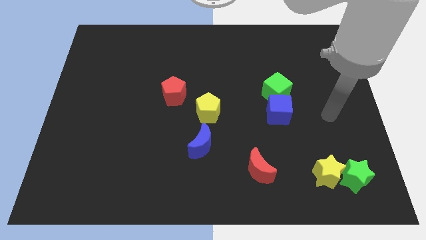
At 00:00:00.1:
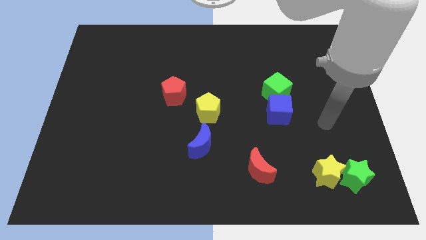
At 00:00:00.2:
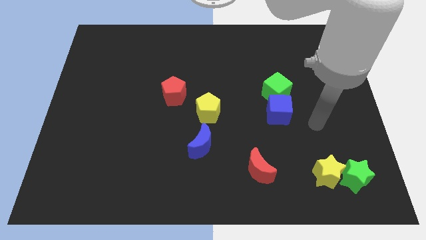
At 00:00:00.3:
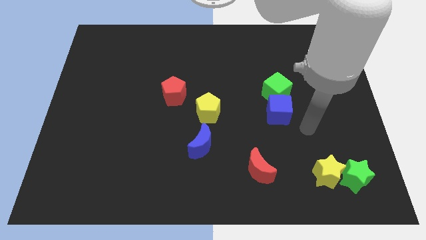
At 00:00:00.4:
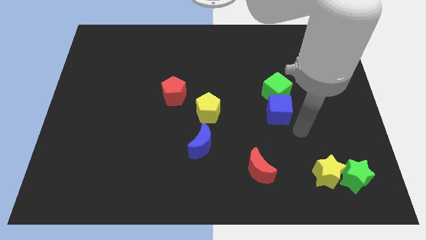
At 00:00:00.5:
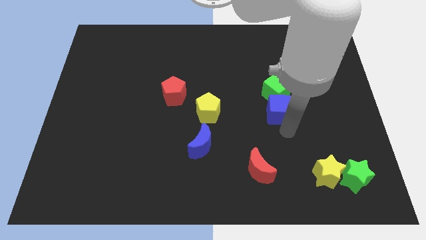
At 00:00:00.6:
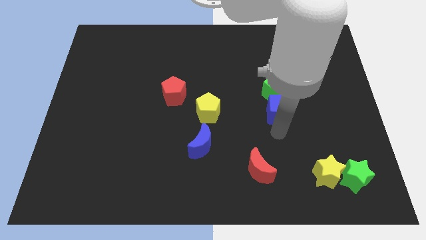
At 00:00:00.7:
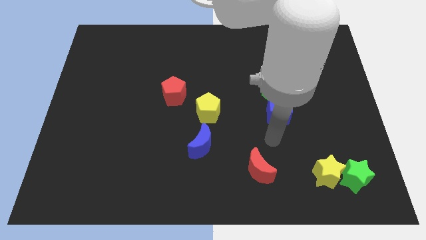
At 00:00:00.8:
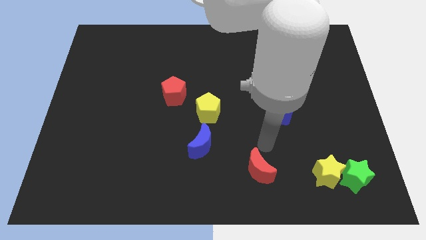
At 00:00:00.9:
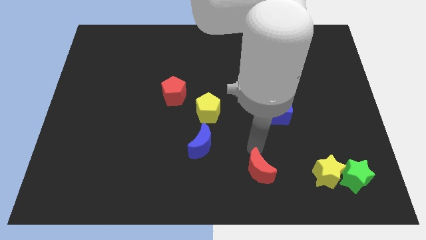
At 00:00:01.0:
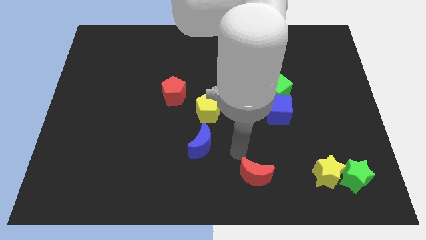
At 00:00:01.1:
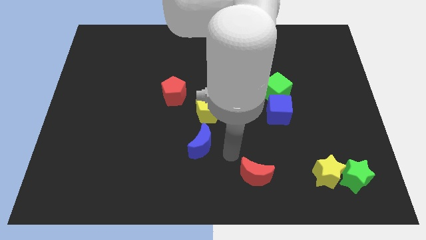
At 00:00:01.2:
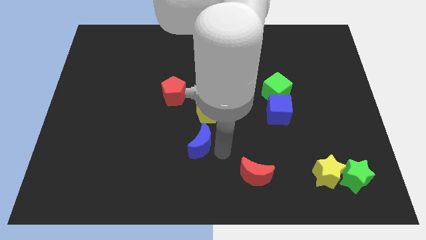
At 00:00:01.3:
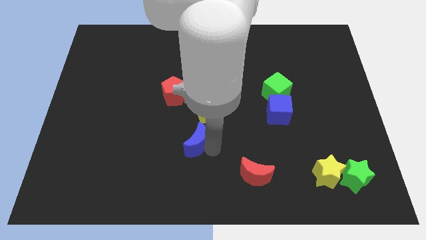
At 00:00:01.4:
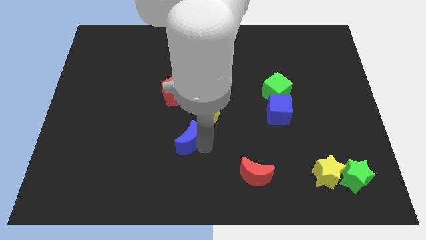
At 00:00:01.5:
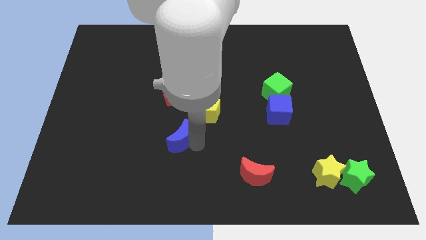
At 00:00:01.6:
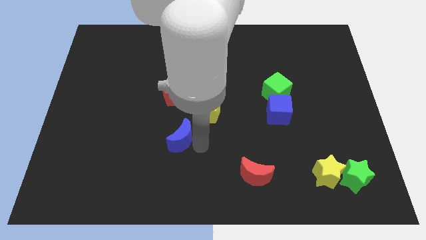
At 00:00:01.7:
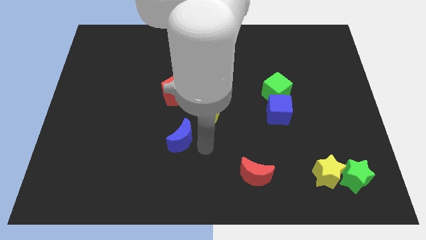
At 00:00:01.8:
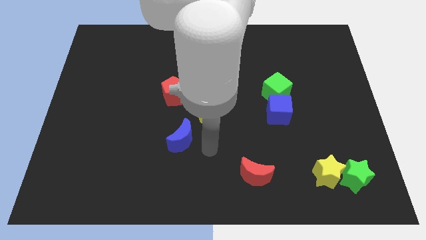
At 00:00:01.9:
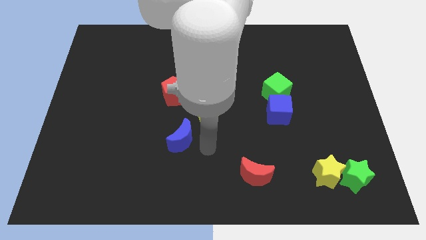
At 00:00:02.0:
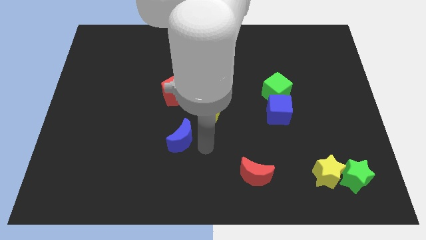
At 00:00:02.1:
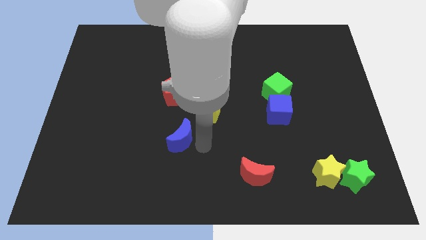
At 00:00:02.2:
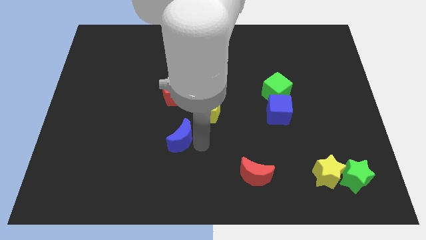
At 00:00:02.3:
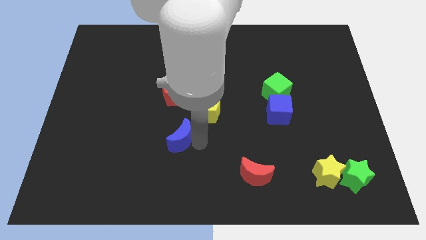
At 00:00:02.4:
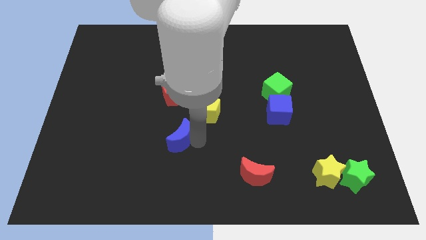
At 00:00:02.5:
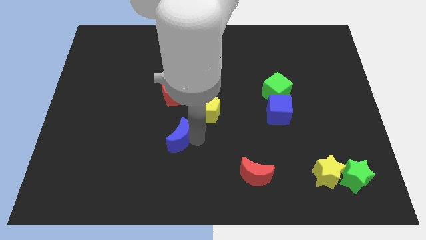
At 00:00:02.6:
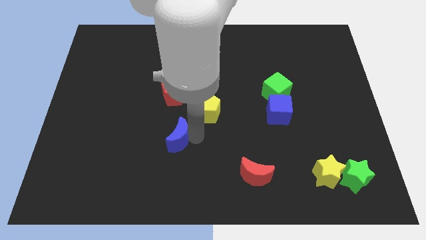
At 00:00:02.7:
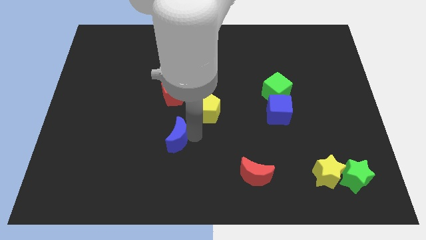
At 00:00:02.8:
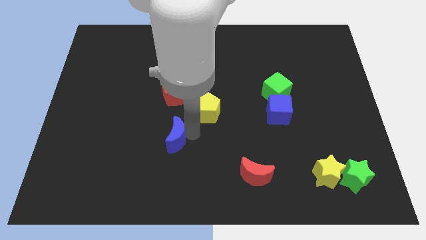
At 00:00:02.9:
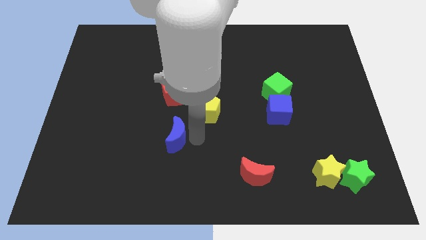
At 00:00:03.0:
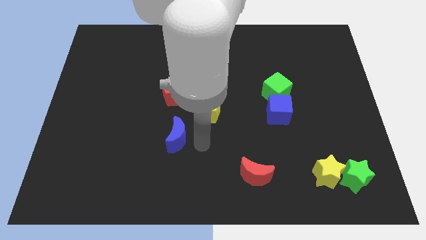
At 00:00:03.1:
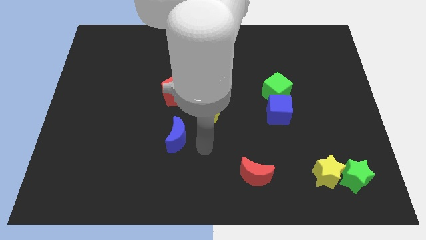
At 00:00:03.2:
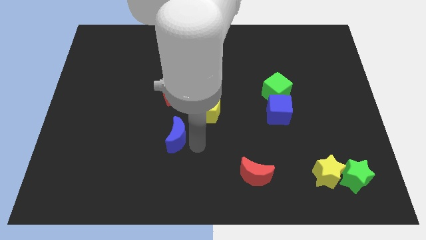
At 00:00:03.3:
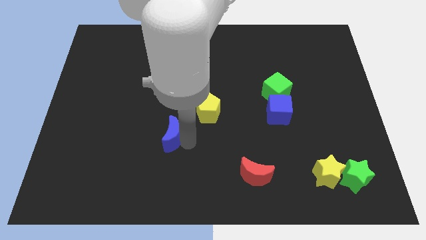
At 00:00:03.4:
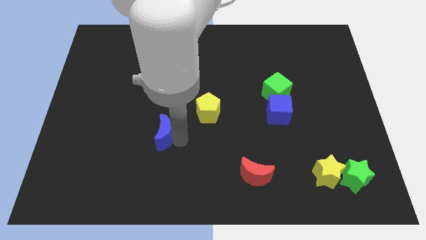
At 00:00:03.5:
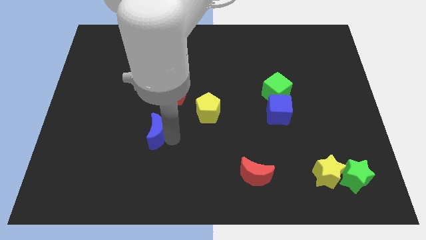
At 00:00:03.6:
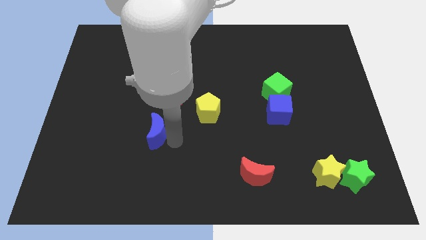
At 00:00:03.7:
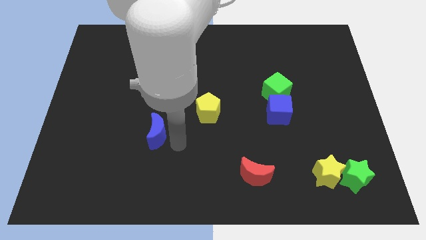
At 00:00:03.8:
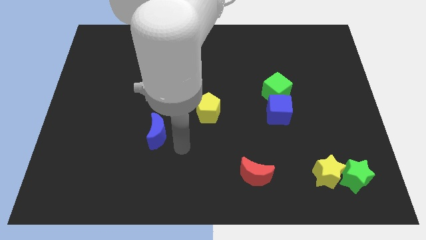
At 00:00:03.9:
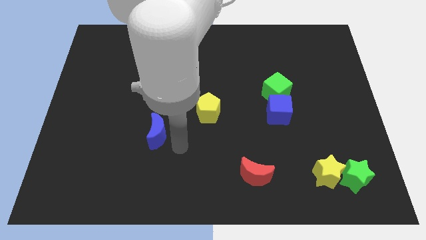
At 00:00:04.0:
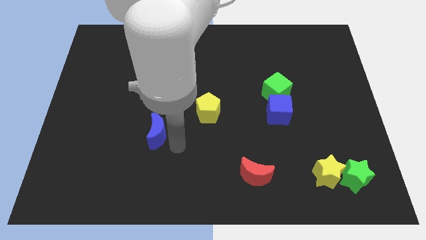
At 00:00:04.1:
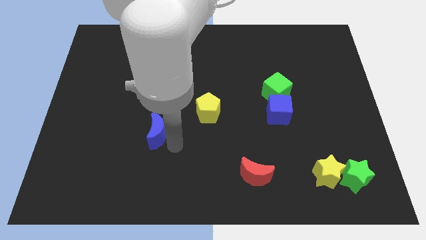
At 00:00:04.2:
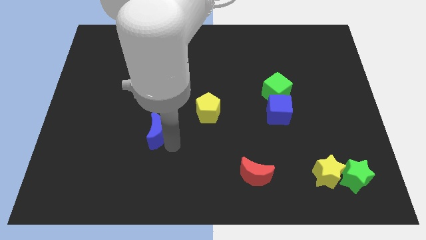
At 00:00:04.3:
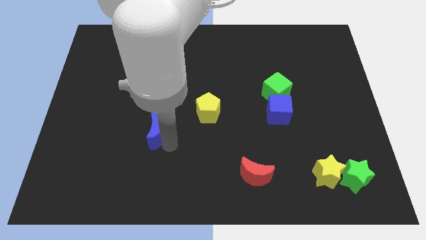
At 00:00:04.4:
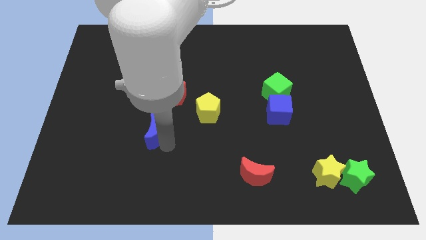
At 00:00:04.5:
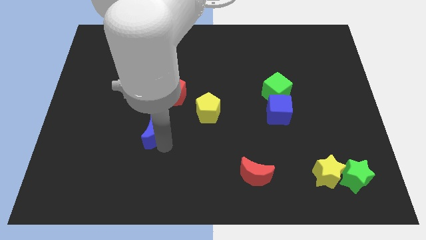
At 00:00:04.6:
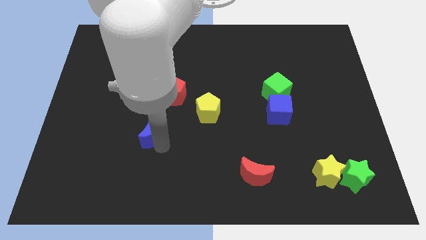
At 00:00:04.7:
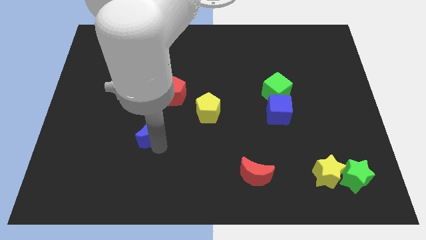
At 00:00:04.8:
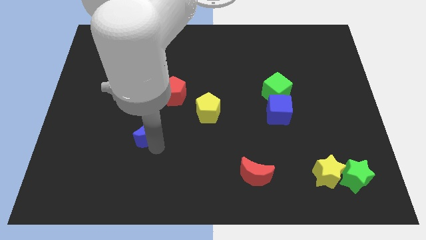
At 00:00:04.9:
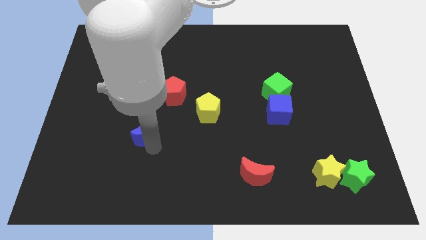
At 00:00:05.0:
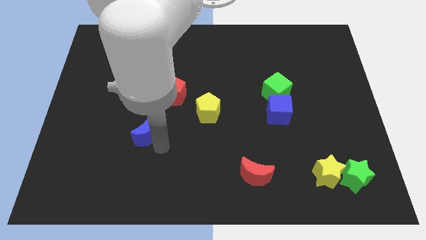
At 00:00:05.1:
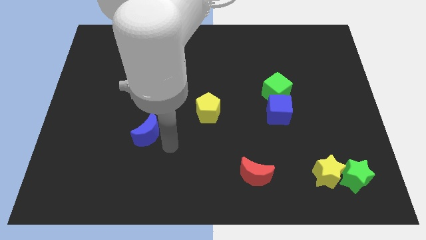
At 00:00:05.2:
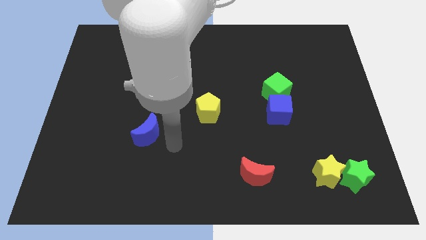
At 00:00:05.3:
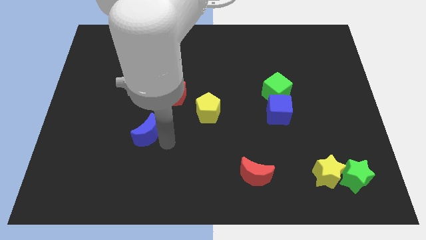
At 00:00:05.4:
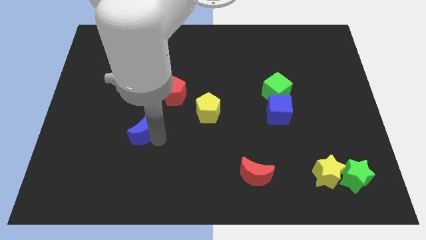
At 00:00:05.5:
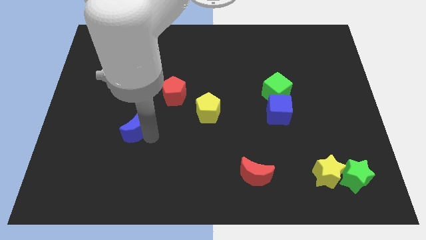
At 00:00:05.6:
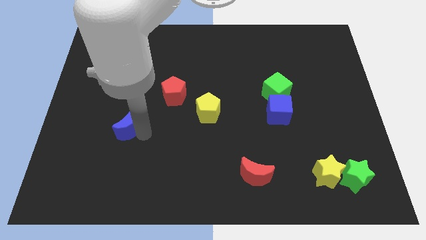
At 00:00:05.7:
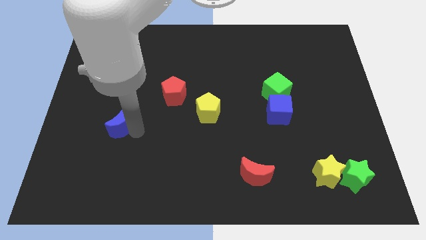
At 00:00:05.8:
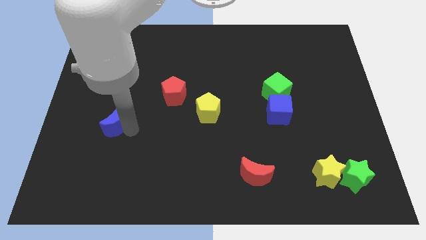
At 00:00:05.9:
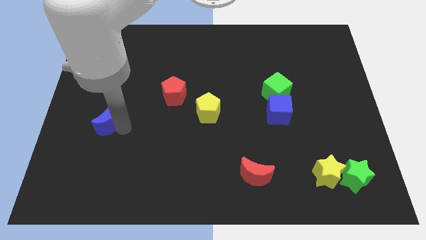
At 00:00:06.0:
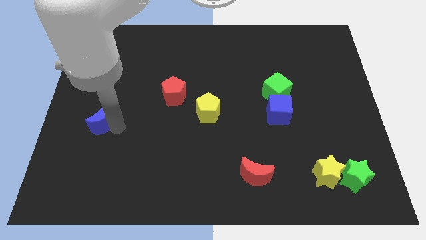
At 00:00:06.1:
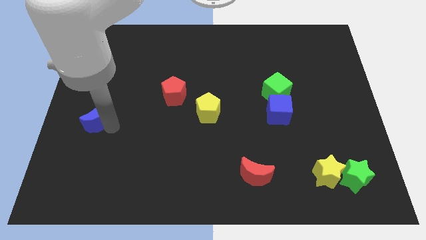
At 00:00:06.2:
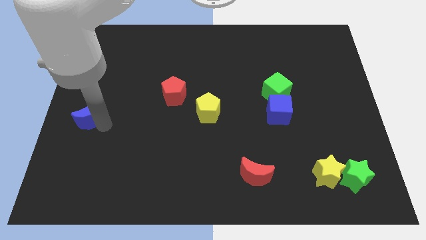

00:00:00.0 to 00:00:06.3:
push the blue moon to the center left
